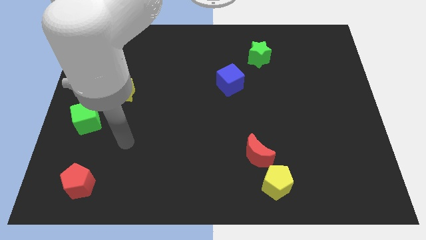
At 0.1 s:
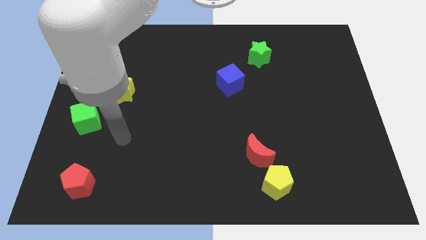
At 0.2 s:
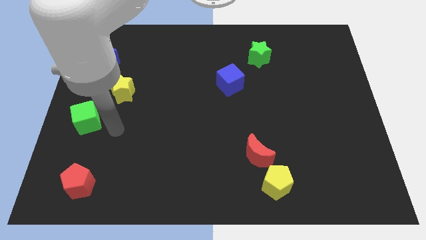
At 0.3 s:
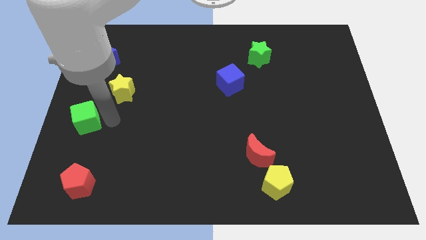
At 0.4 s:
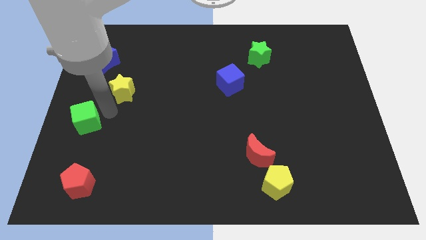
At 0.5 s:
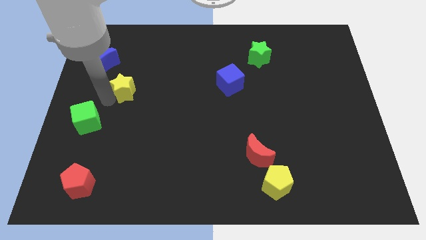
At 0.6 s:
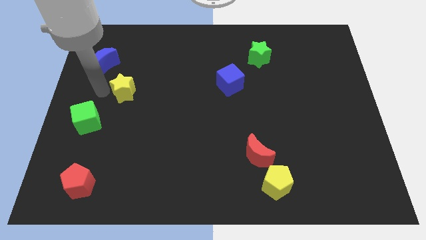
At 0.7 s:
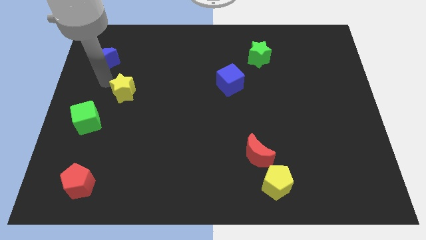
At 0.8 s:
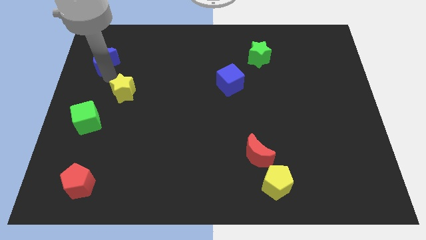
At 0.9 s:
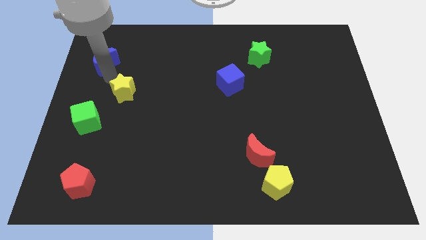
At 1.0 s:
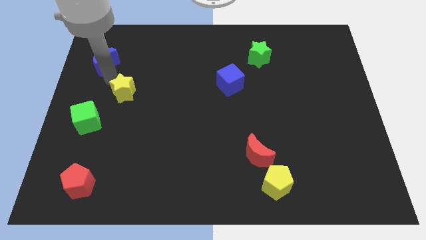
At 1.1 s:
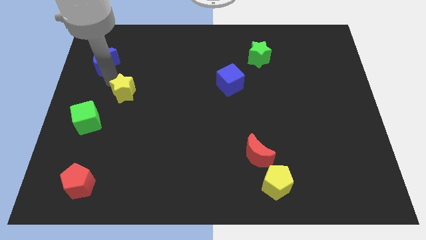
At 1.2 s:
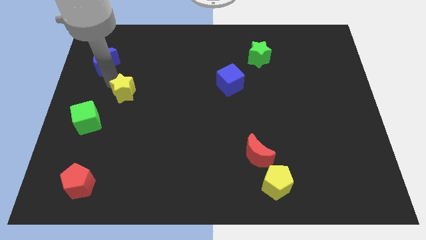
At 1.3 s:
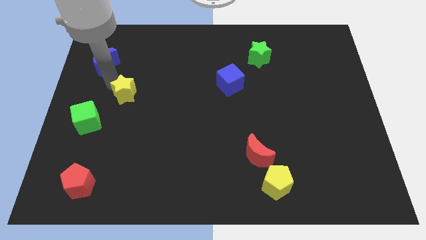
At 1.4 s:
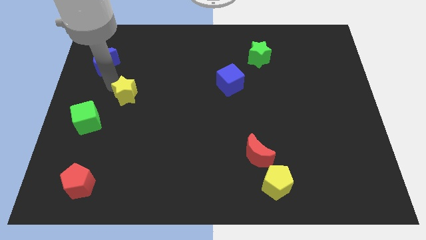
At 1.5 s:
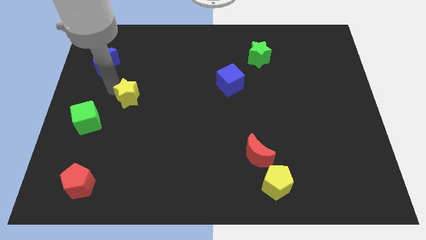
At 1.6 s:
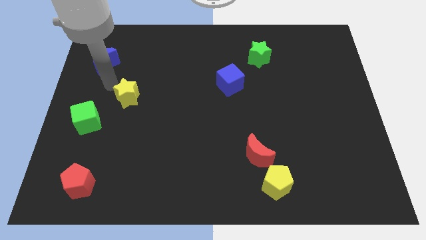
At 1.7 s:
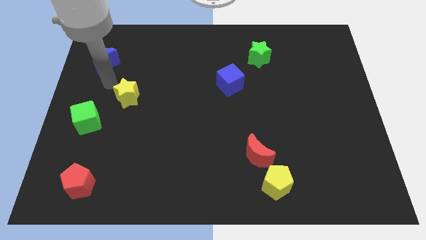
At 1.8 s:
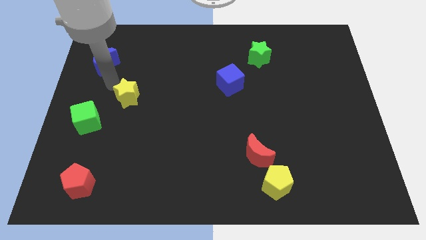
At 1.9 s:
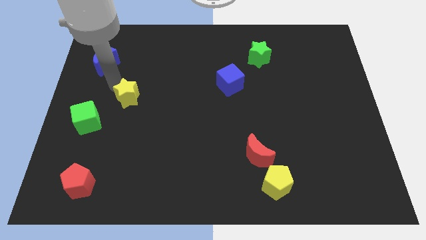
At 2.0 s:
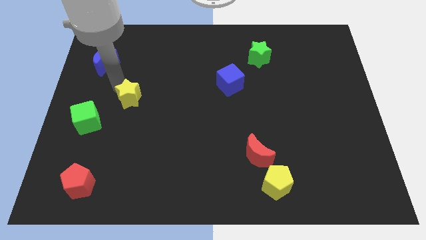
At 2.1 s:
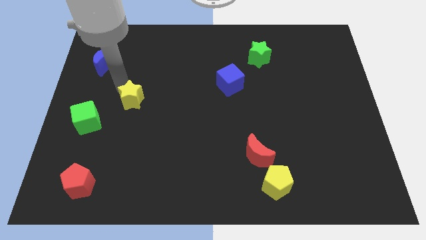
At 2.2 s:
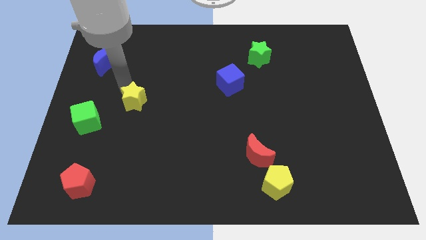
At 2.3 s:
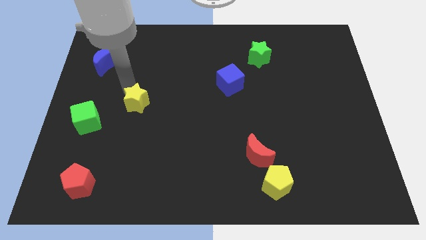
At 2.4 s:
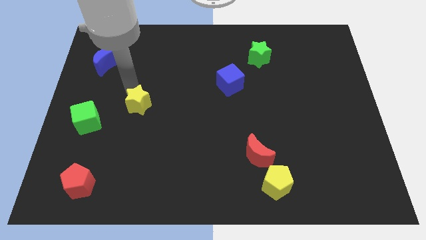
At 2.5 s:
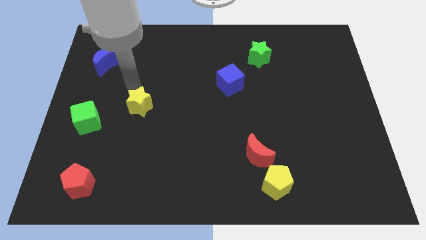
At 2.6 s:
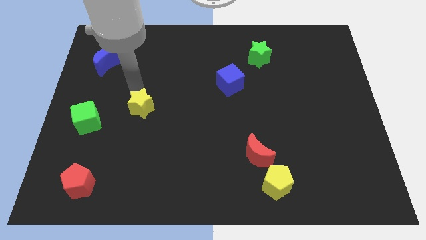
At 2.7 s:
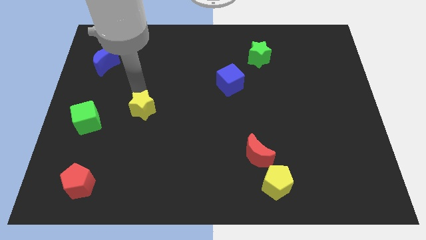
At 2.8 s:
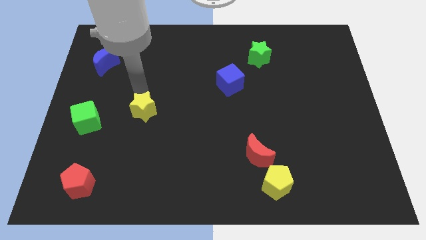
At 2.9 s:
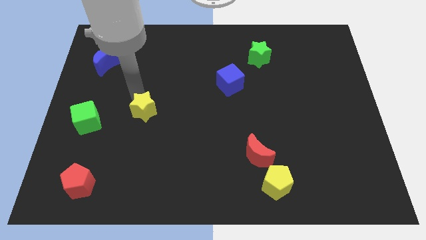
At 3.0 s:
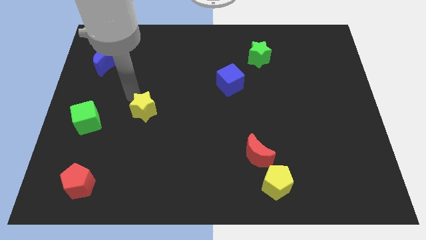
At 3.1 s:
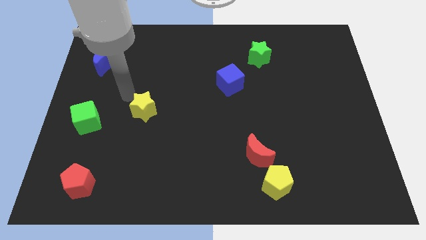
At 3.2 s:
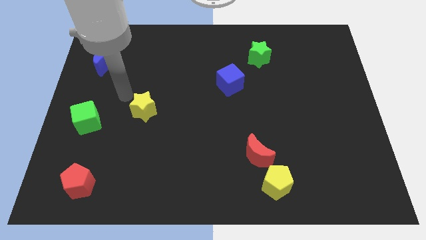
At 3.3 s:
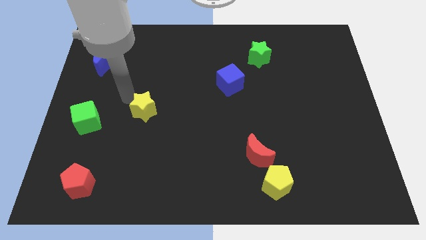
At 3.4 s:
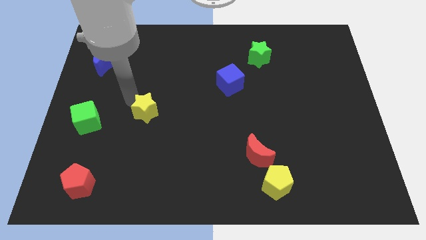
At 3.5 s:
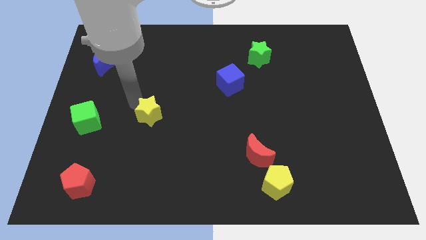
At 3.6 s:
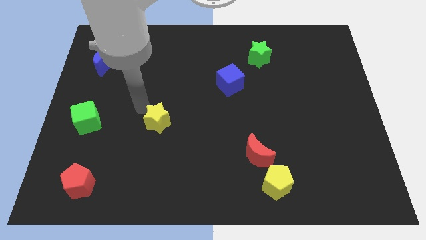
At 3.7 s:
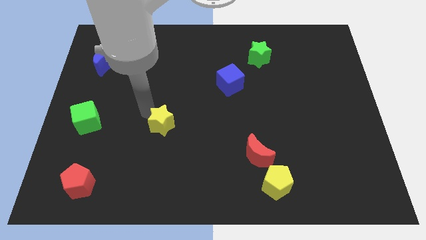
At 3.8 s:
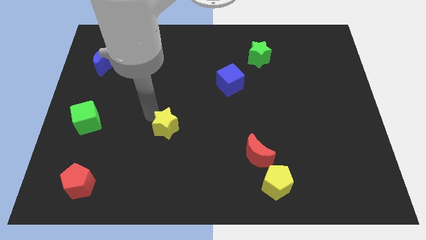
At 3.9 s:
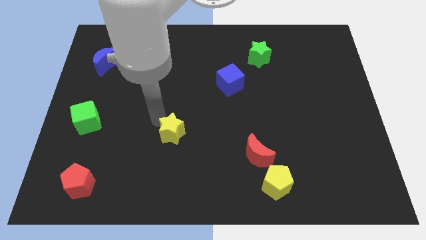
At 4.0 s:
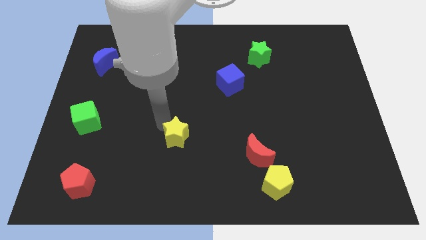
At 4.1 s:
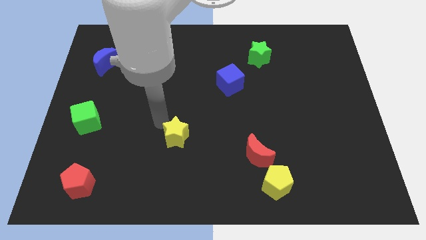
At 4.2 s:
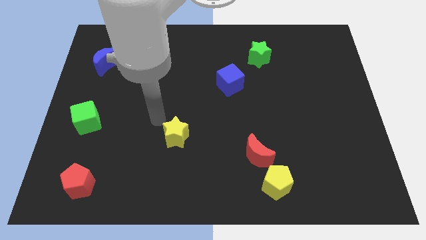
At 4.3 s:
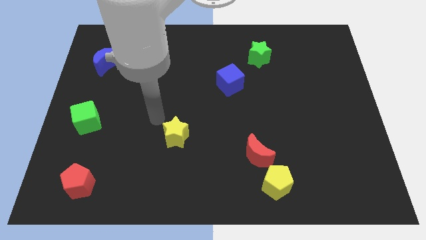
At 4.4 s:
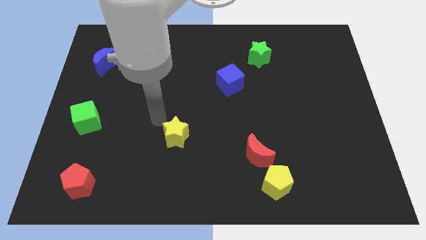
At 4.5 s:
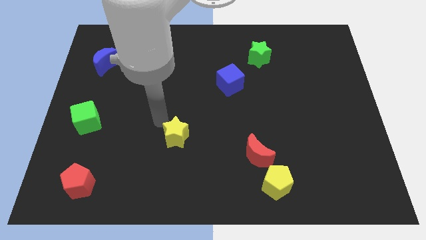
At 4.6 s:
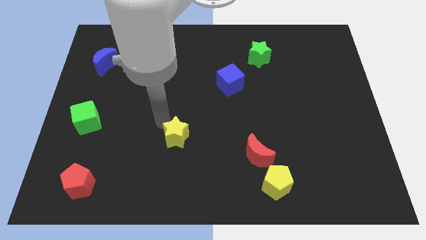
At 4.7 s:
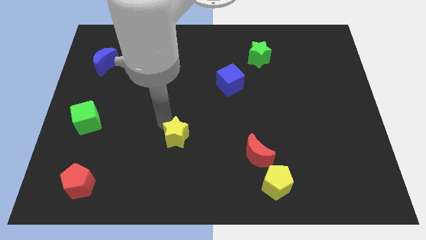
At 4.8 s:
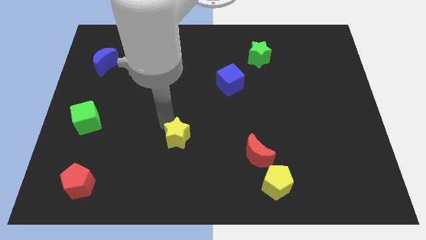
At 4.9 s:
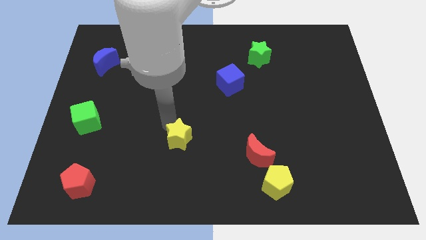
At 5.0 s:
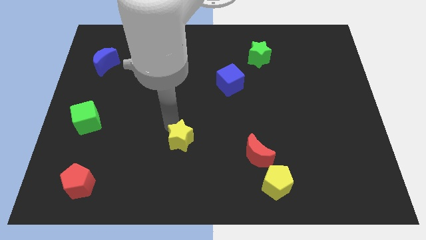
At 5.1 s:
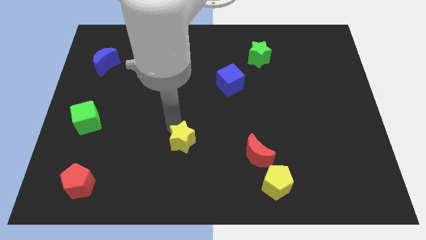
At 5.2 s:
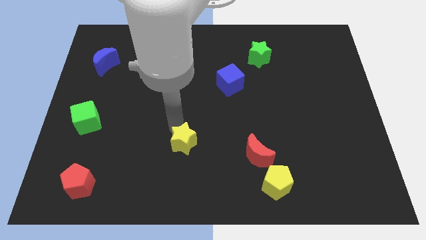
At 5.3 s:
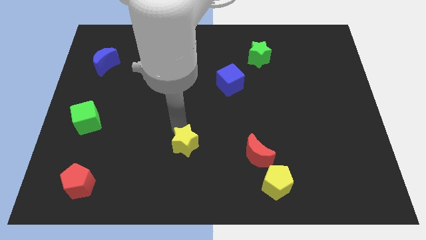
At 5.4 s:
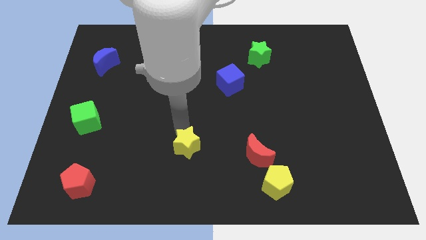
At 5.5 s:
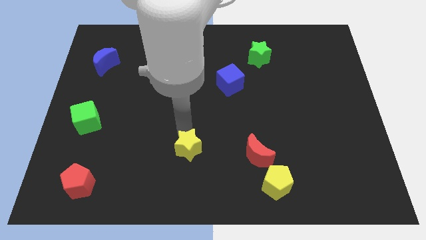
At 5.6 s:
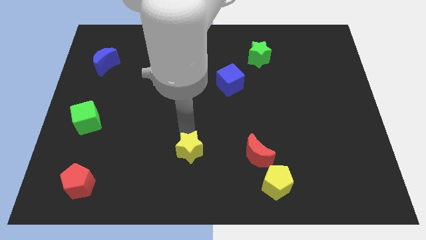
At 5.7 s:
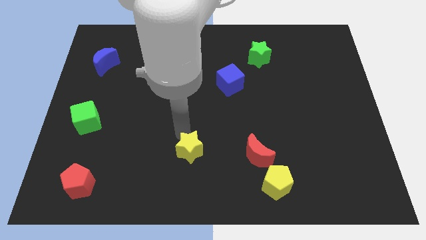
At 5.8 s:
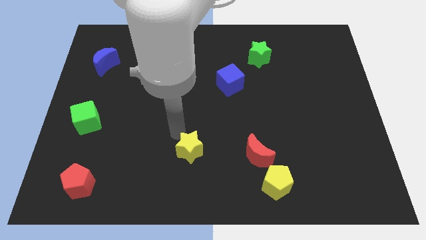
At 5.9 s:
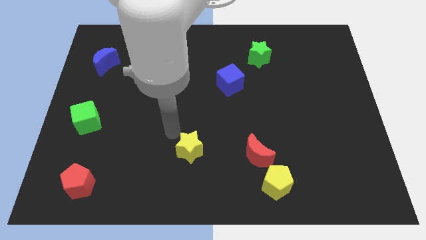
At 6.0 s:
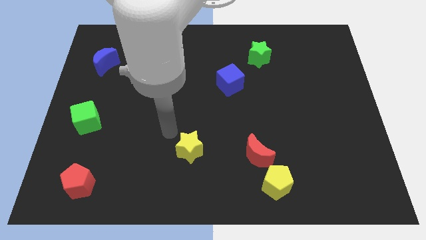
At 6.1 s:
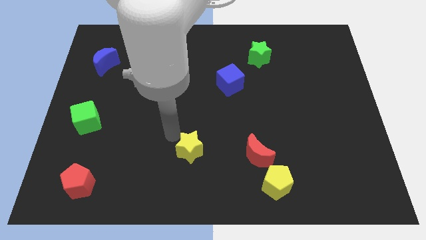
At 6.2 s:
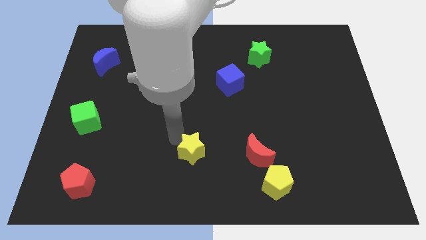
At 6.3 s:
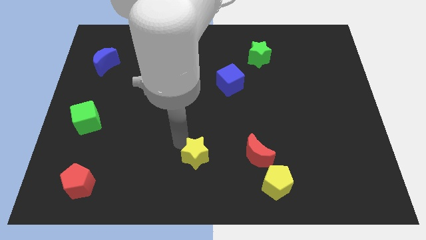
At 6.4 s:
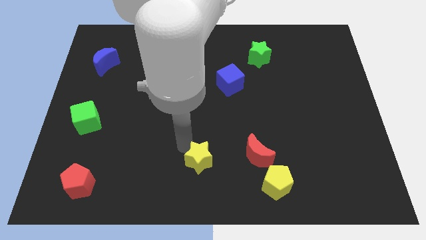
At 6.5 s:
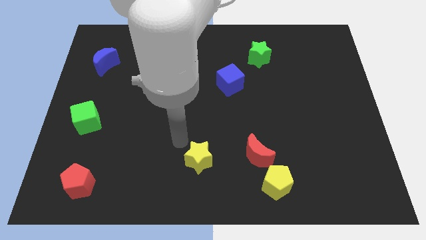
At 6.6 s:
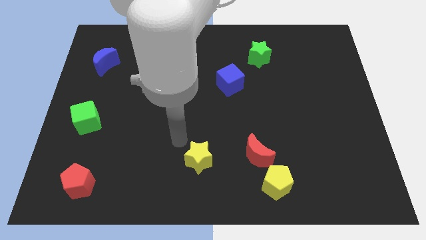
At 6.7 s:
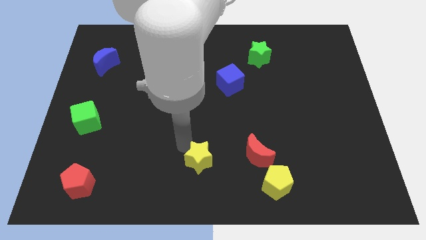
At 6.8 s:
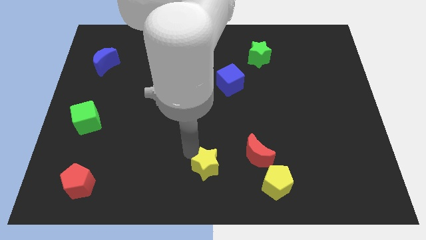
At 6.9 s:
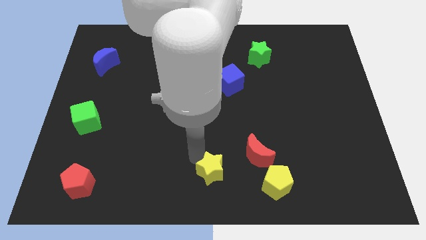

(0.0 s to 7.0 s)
push the yellow star left of the yellow pentagon
